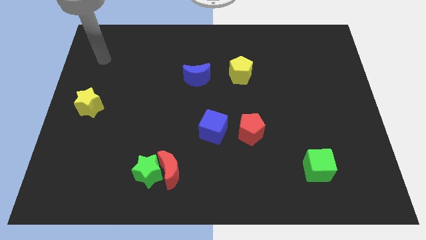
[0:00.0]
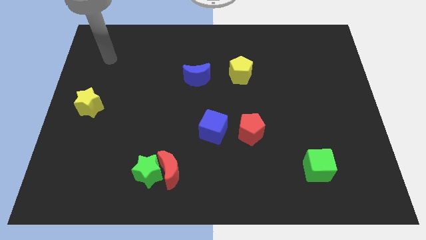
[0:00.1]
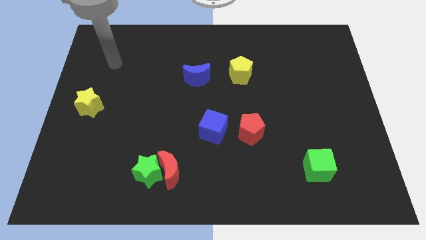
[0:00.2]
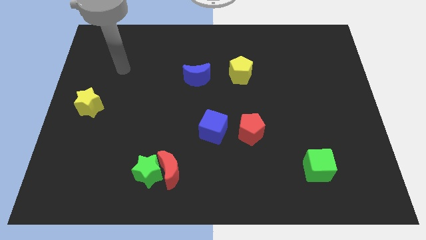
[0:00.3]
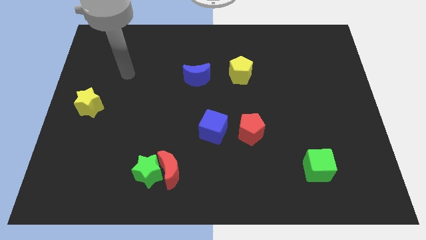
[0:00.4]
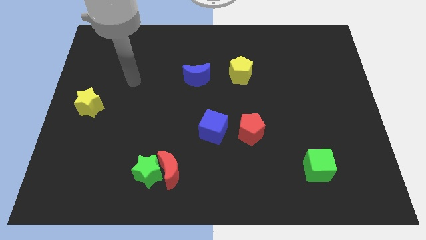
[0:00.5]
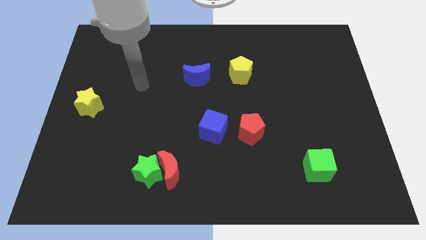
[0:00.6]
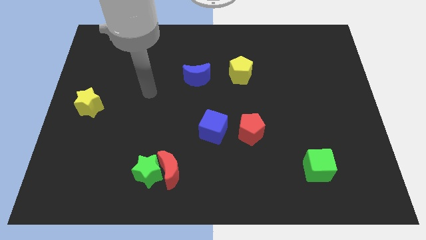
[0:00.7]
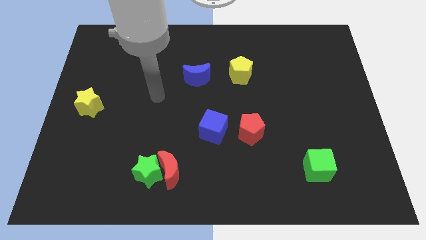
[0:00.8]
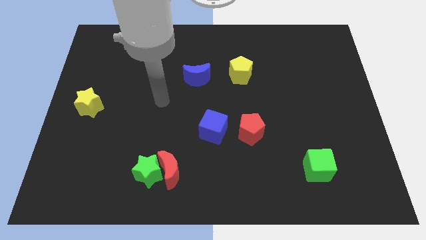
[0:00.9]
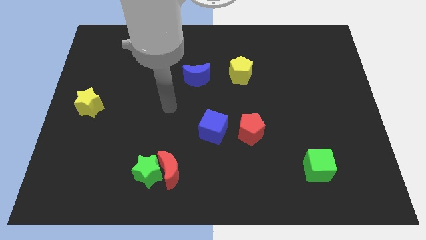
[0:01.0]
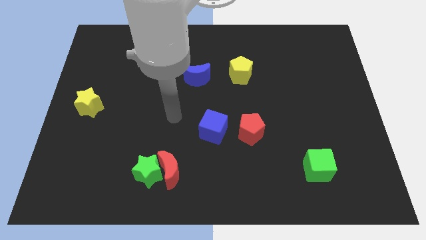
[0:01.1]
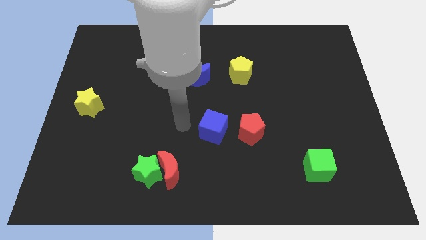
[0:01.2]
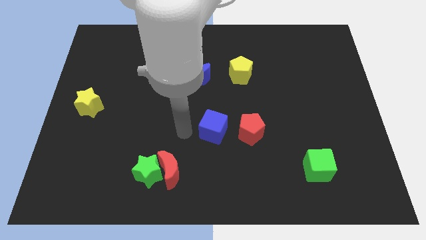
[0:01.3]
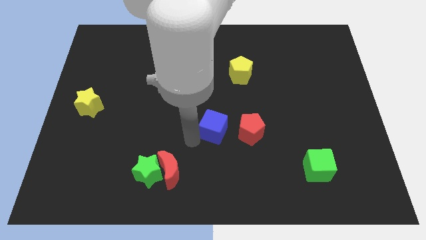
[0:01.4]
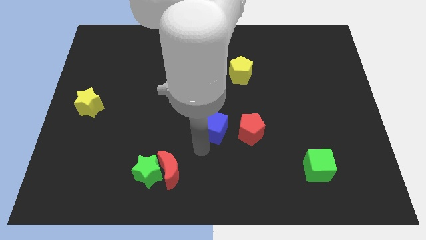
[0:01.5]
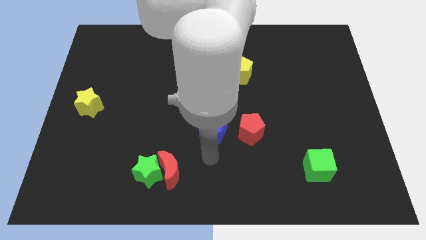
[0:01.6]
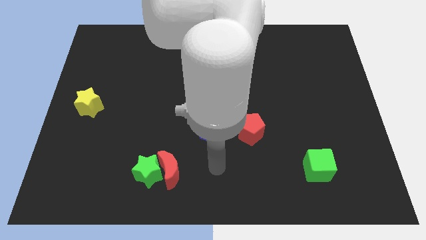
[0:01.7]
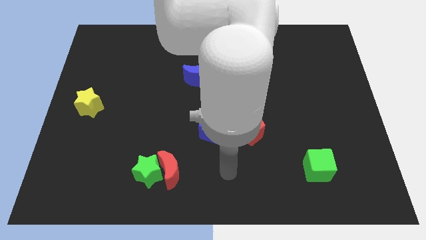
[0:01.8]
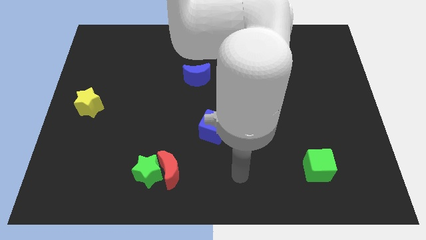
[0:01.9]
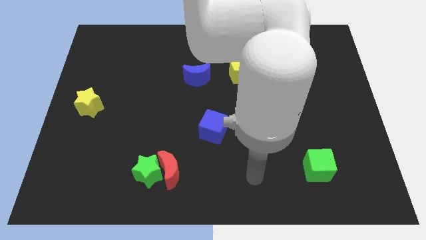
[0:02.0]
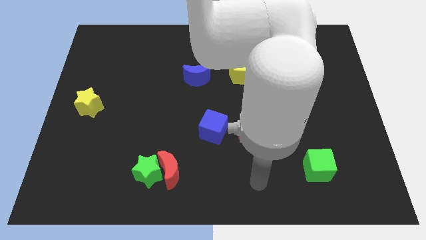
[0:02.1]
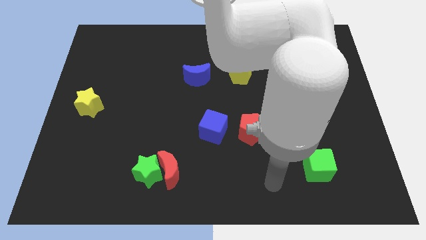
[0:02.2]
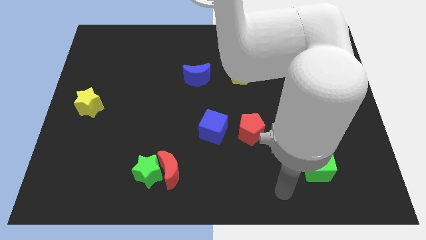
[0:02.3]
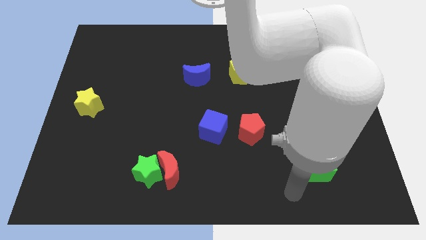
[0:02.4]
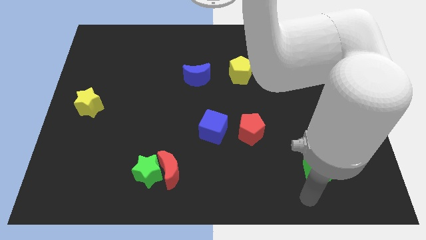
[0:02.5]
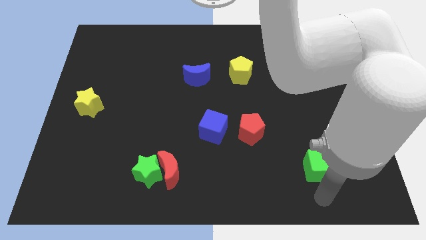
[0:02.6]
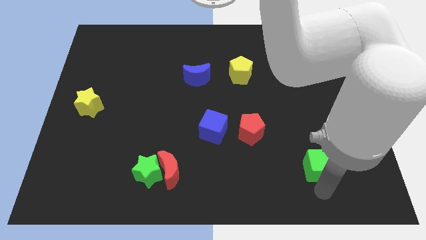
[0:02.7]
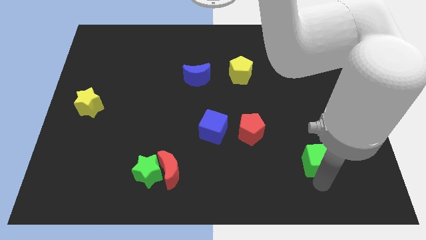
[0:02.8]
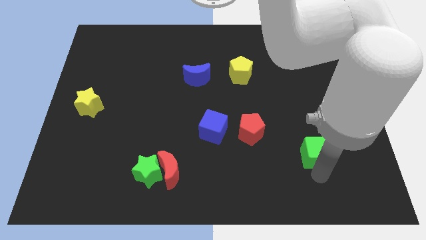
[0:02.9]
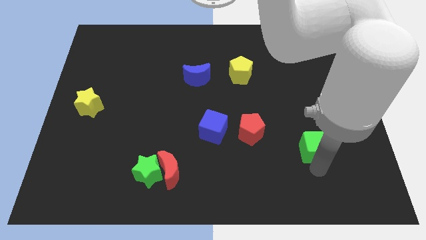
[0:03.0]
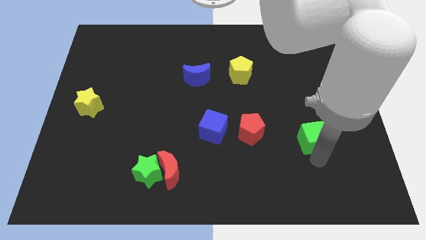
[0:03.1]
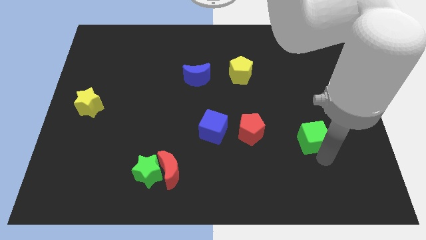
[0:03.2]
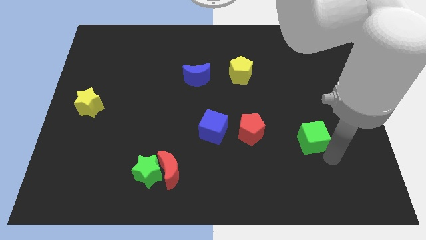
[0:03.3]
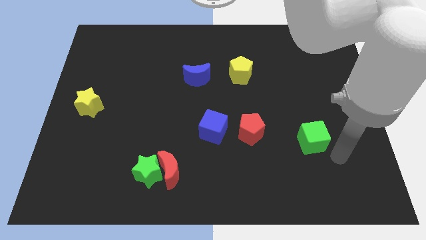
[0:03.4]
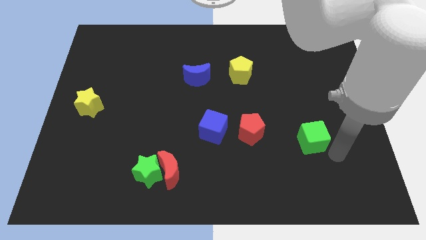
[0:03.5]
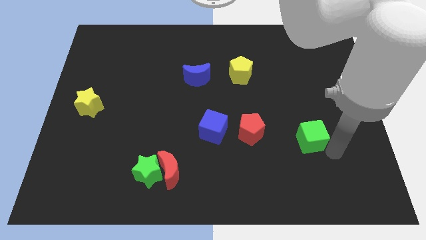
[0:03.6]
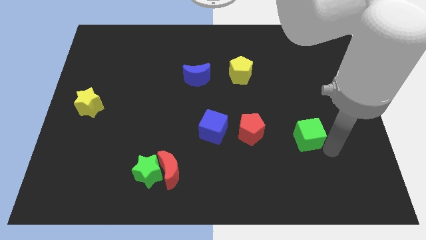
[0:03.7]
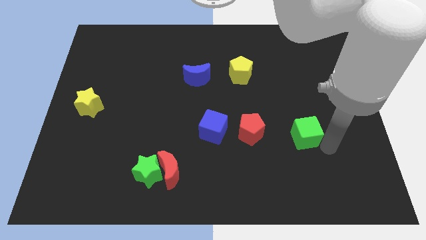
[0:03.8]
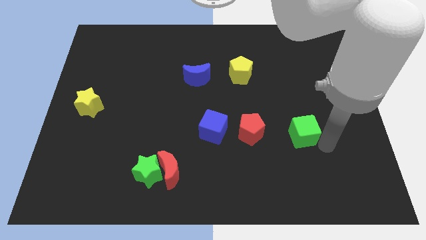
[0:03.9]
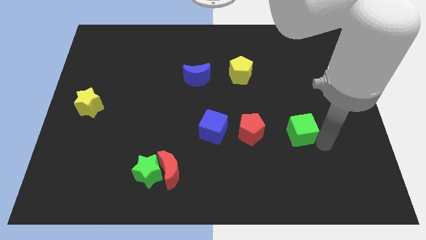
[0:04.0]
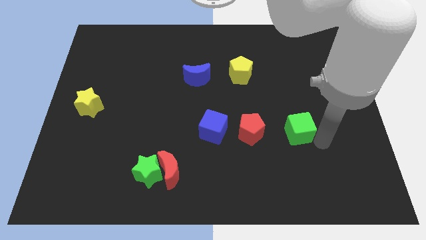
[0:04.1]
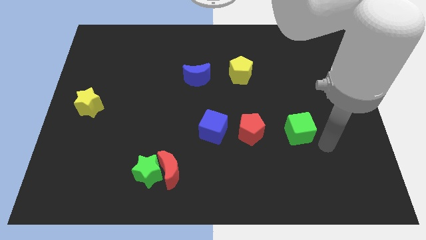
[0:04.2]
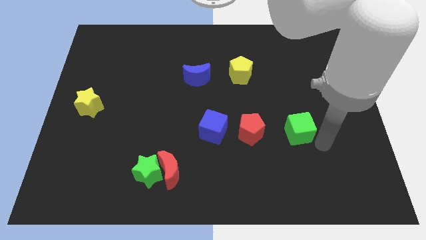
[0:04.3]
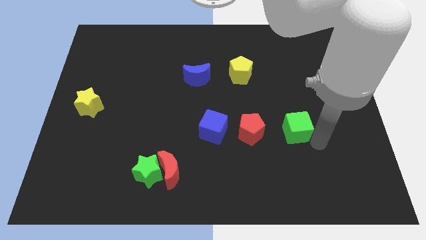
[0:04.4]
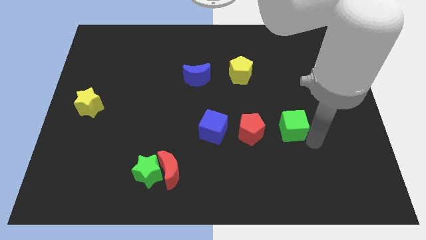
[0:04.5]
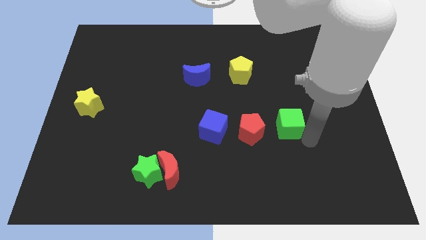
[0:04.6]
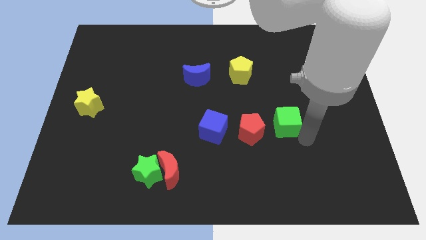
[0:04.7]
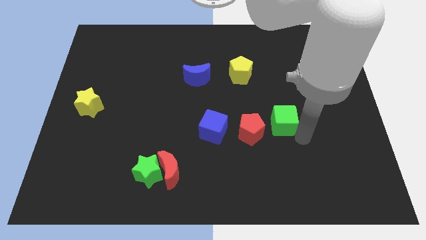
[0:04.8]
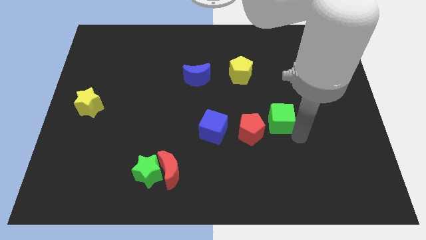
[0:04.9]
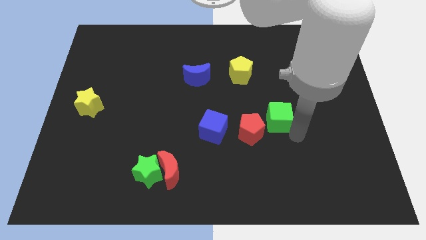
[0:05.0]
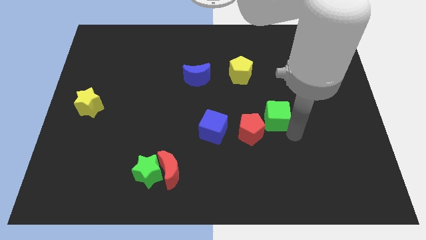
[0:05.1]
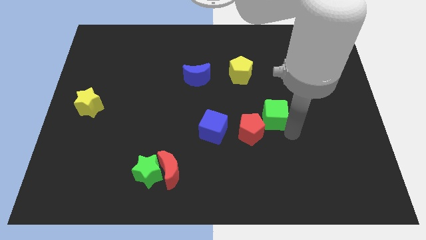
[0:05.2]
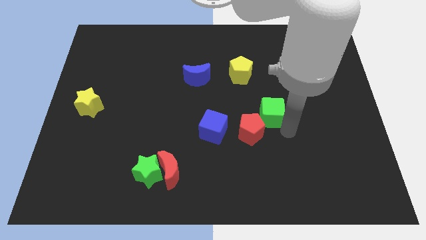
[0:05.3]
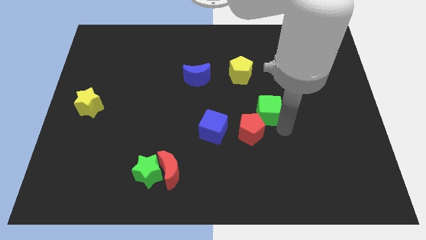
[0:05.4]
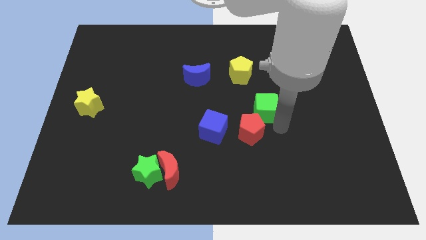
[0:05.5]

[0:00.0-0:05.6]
move the green cube to the middle
